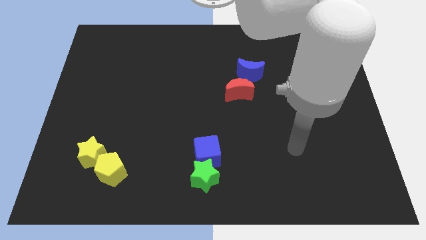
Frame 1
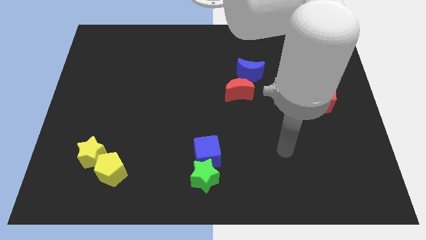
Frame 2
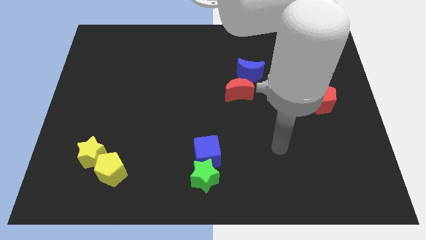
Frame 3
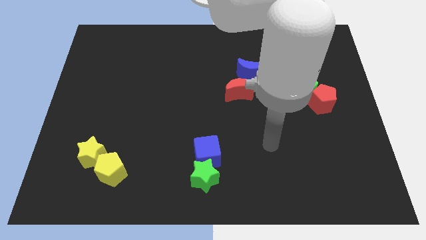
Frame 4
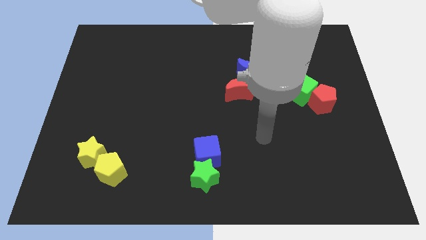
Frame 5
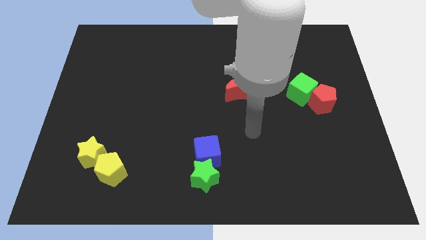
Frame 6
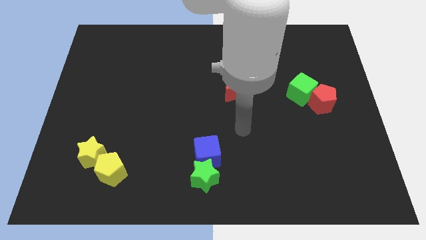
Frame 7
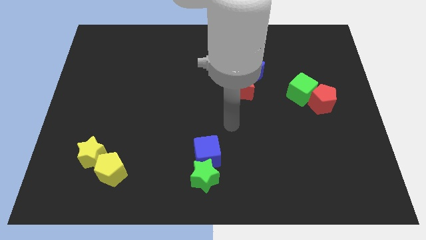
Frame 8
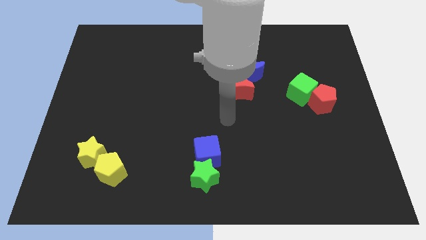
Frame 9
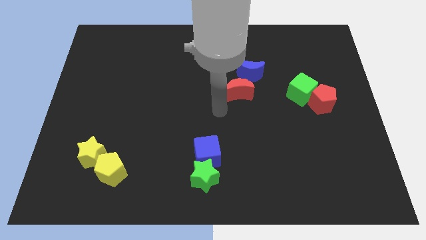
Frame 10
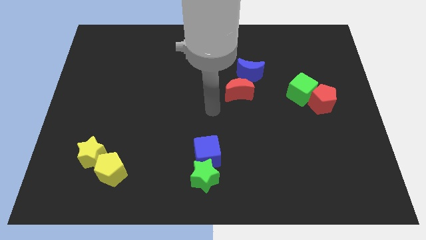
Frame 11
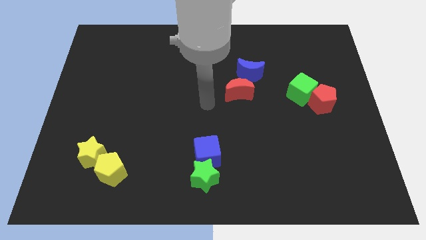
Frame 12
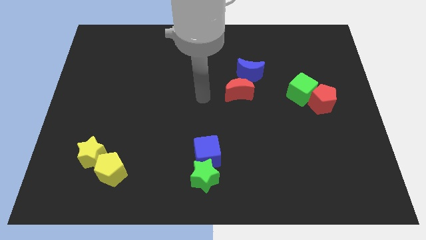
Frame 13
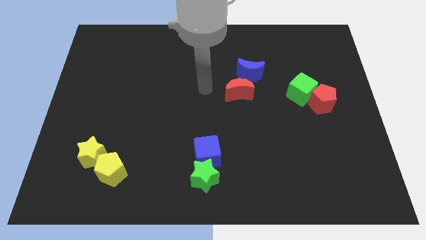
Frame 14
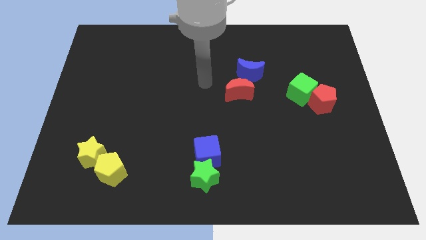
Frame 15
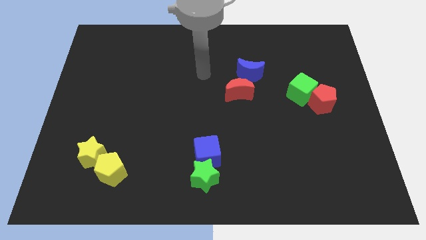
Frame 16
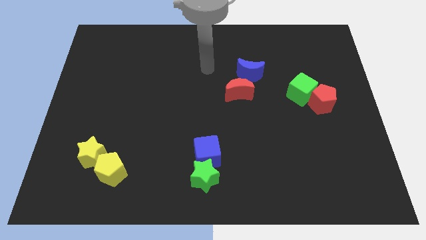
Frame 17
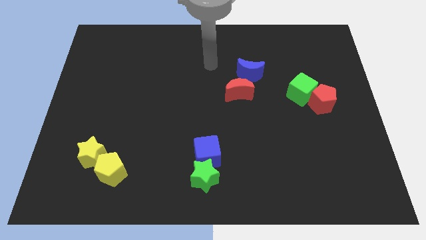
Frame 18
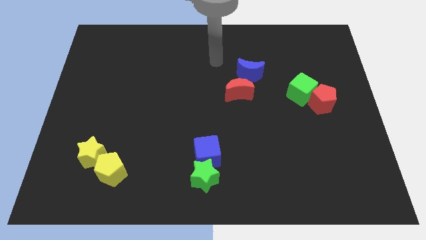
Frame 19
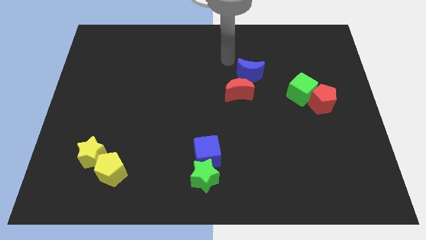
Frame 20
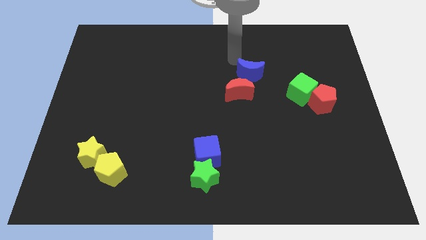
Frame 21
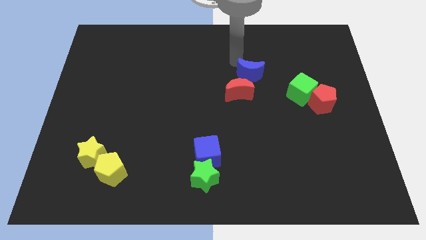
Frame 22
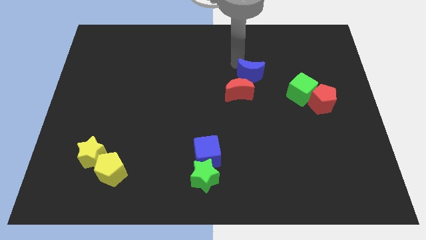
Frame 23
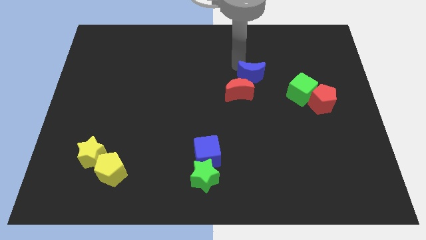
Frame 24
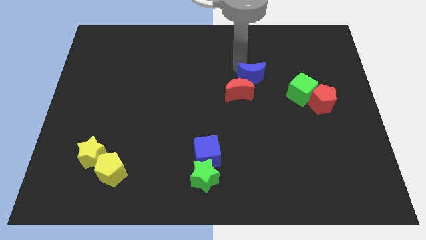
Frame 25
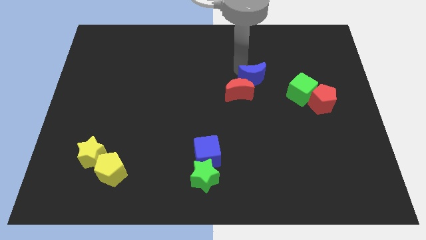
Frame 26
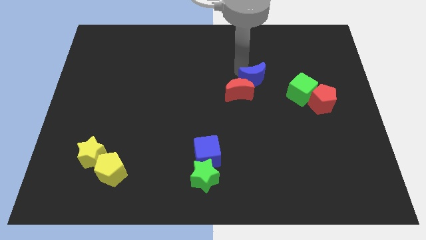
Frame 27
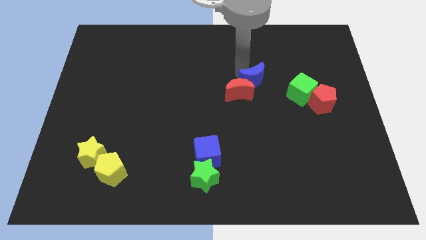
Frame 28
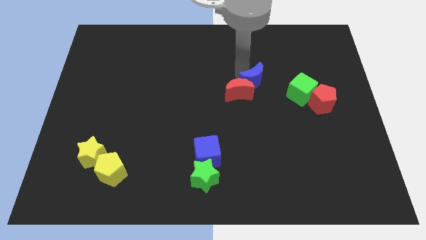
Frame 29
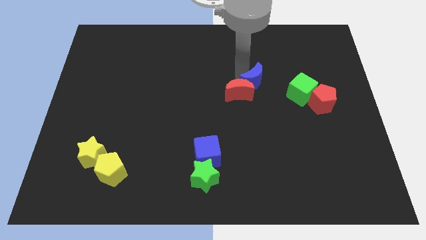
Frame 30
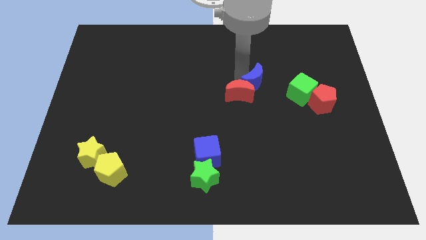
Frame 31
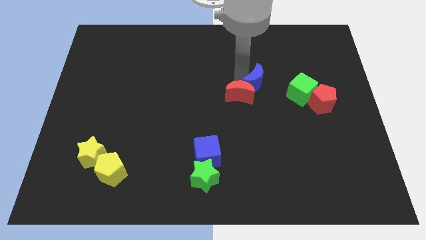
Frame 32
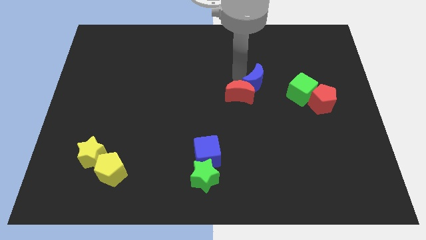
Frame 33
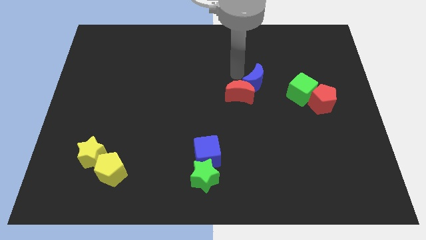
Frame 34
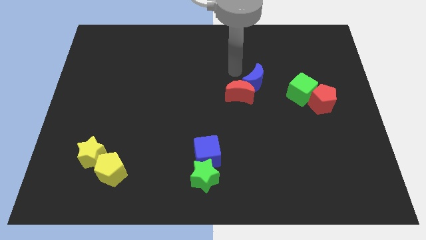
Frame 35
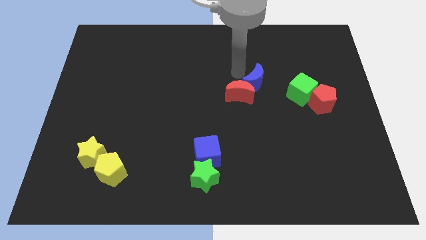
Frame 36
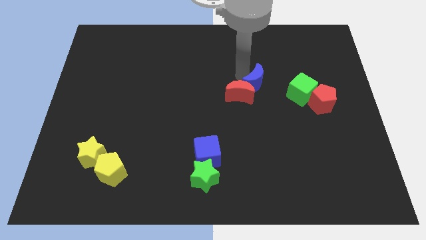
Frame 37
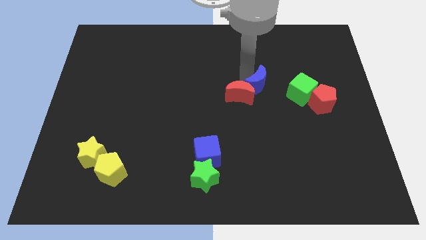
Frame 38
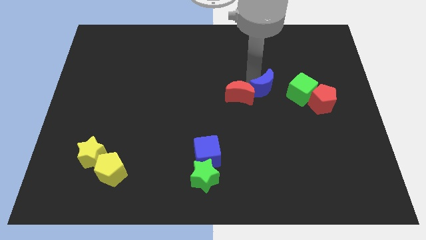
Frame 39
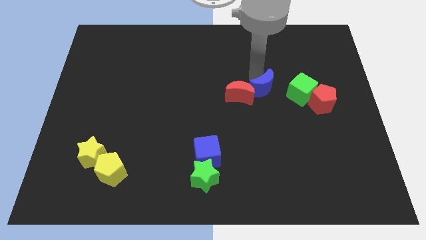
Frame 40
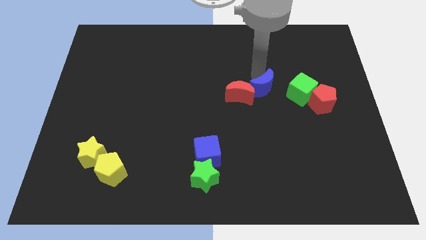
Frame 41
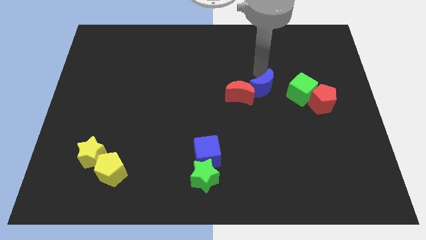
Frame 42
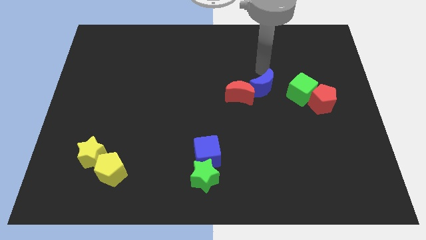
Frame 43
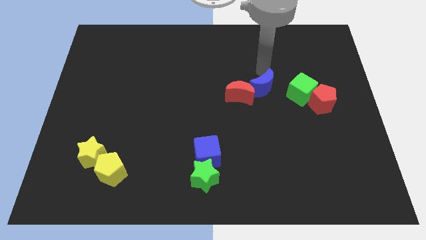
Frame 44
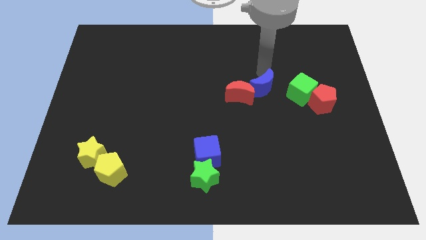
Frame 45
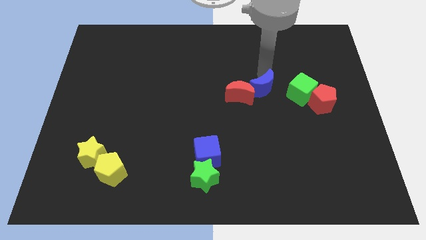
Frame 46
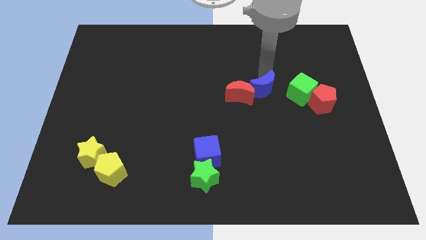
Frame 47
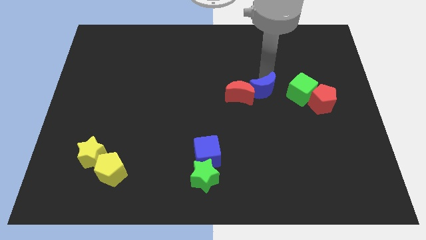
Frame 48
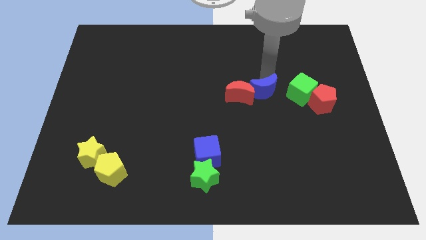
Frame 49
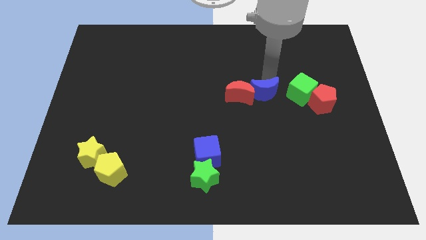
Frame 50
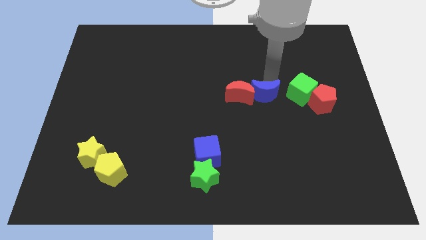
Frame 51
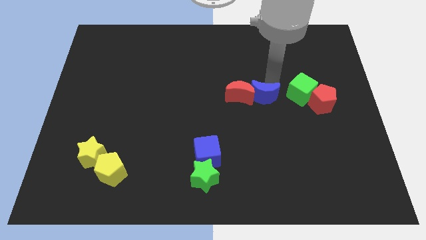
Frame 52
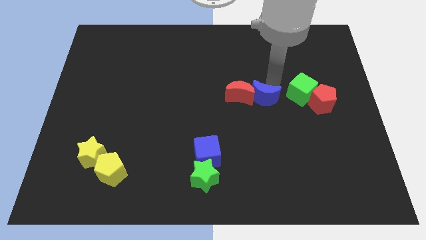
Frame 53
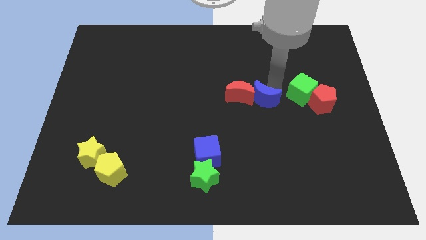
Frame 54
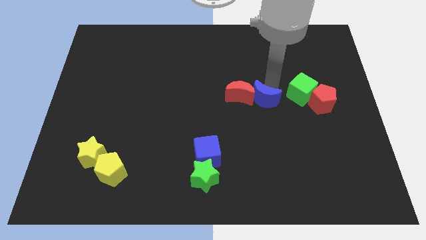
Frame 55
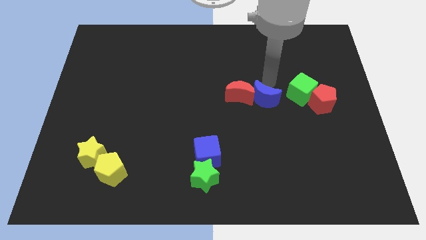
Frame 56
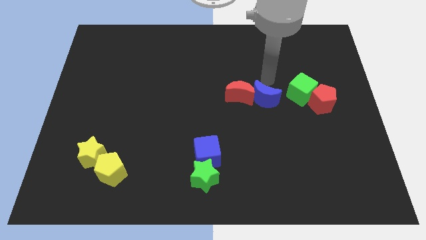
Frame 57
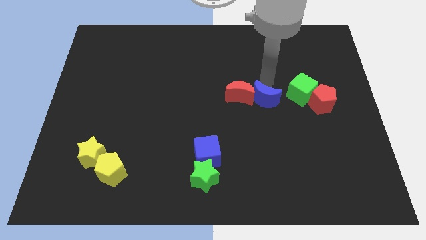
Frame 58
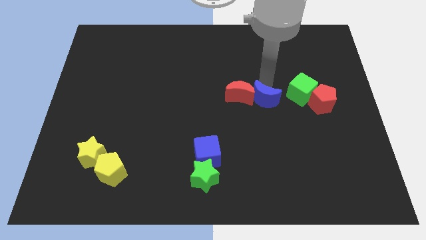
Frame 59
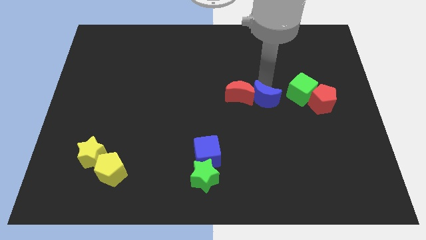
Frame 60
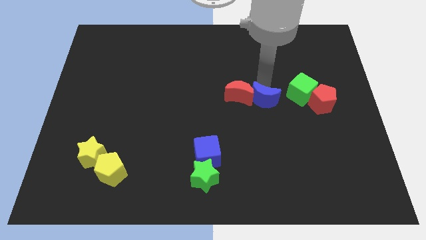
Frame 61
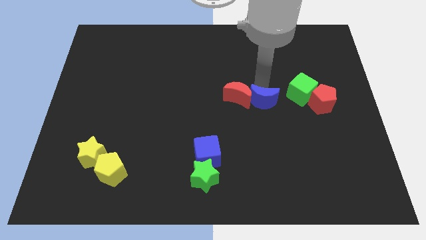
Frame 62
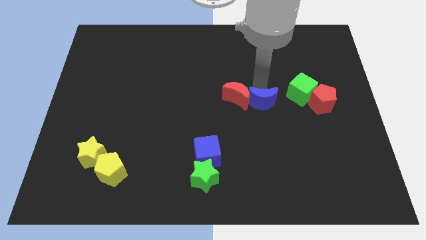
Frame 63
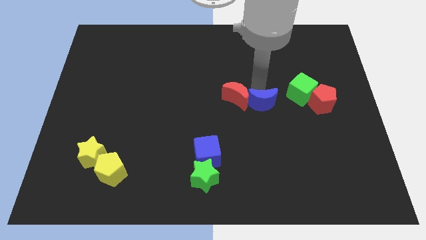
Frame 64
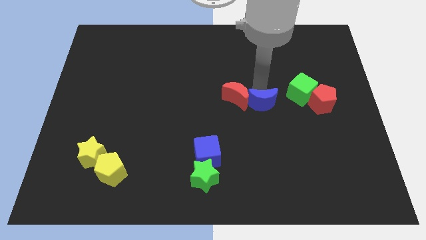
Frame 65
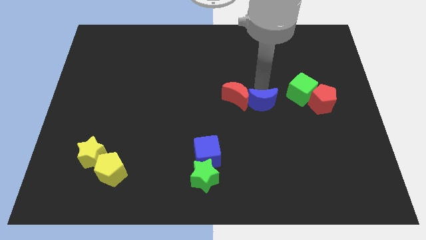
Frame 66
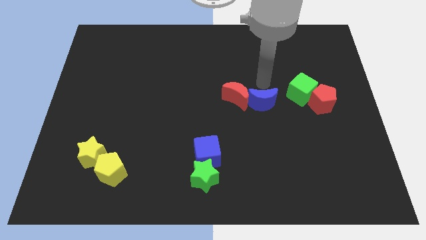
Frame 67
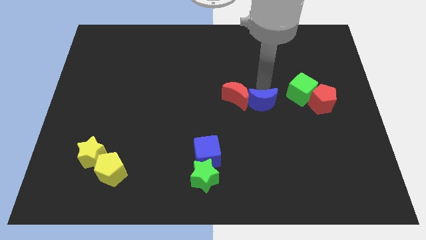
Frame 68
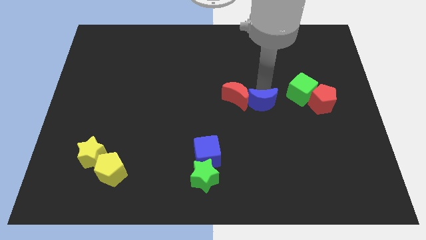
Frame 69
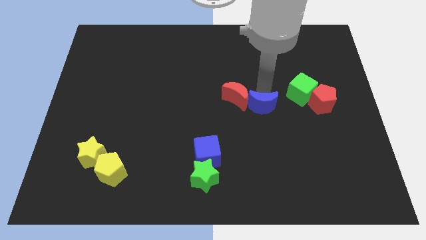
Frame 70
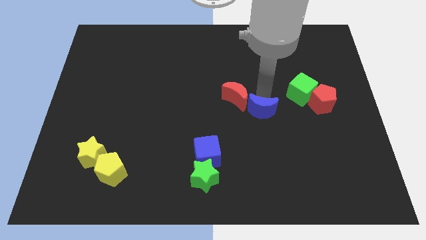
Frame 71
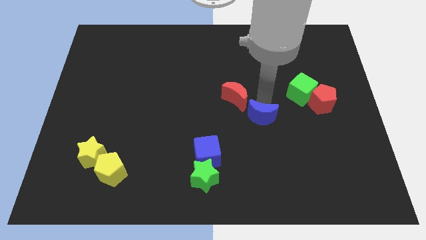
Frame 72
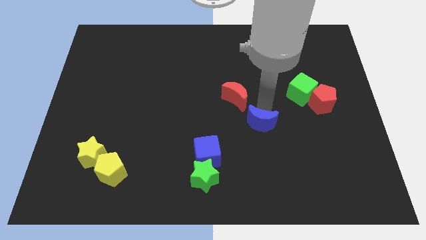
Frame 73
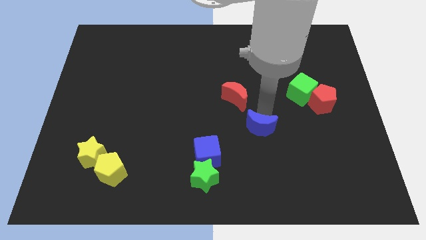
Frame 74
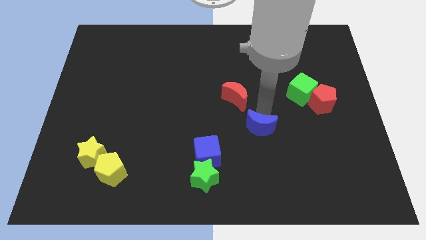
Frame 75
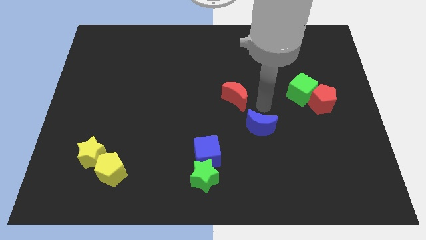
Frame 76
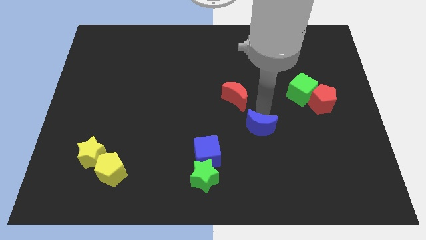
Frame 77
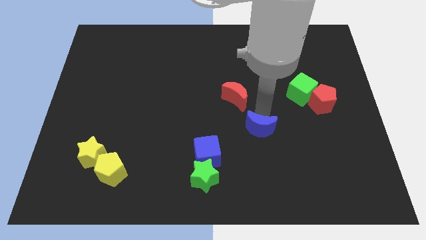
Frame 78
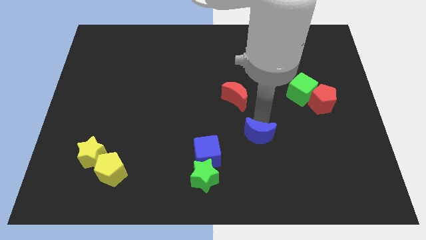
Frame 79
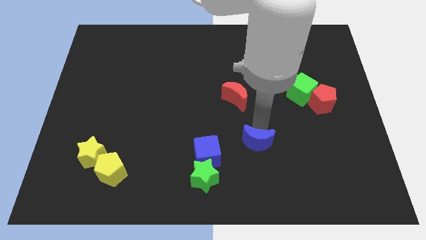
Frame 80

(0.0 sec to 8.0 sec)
push the blue moon right of the blue cube

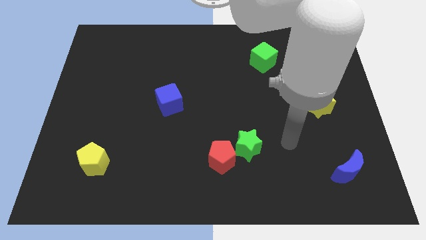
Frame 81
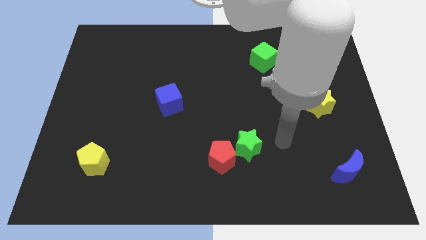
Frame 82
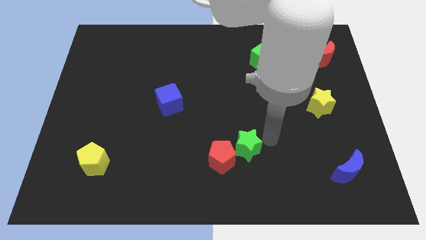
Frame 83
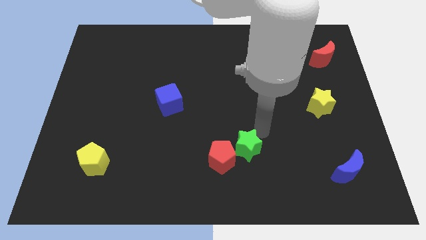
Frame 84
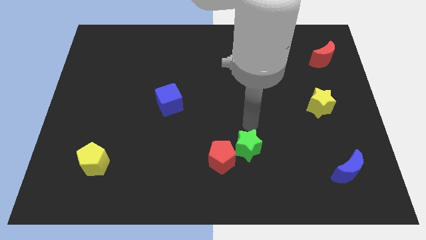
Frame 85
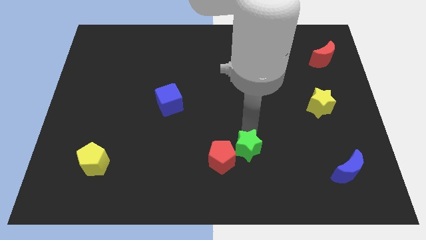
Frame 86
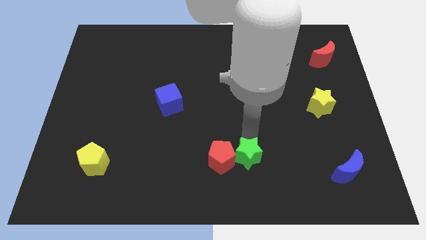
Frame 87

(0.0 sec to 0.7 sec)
move the green star to the bottom right side of the red pentagon
